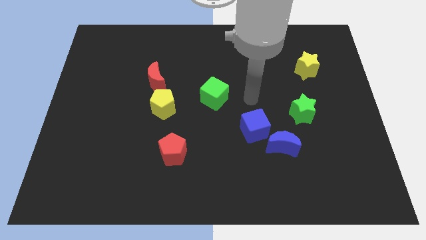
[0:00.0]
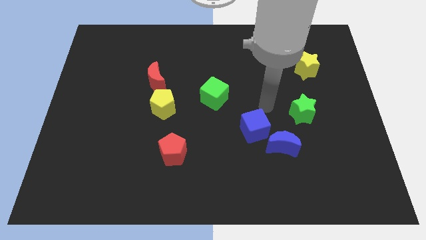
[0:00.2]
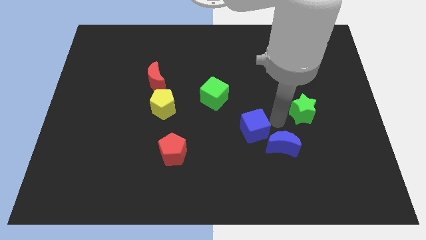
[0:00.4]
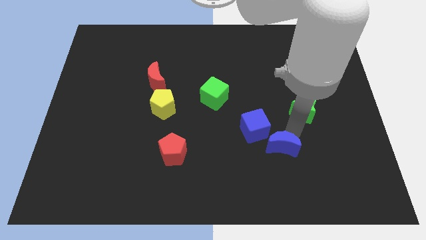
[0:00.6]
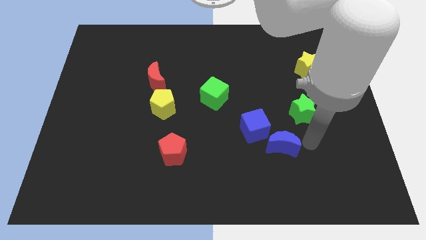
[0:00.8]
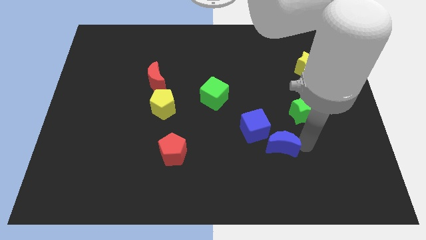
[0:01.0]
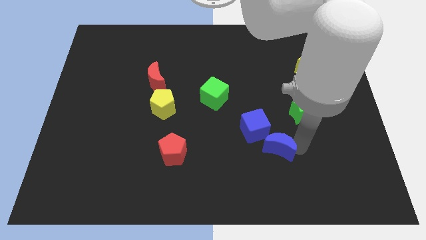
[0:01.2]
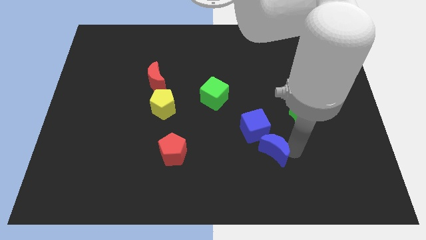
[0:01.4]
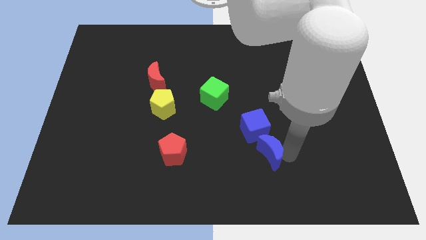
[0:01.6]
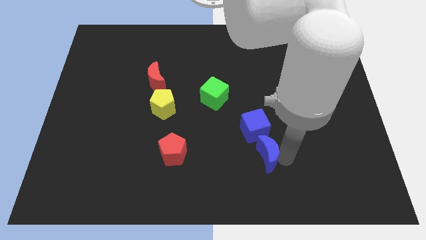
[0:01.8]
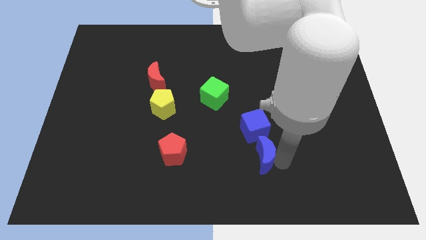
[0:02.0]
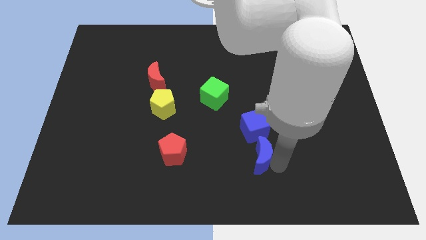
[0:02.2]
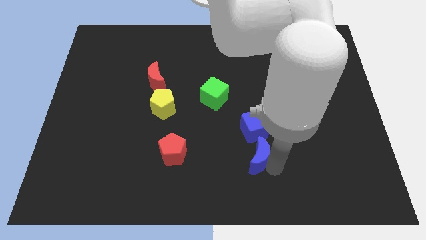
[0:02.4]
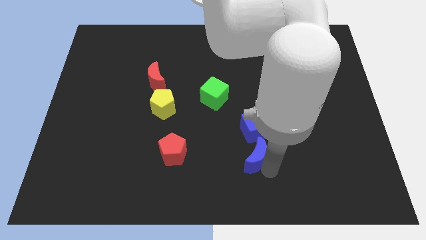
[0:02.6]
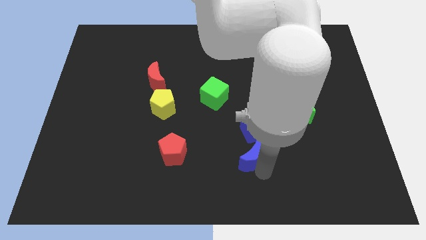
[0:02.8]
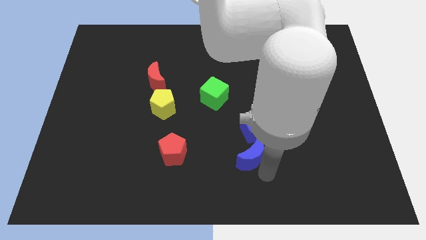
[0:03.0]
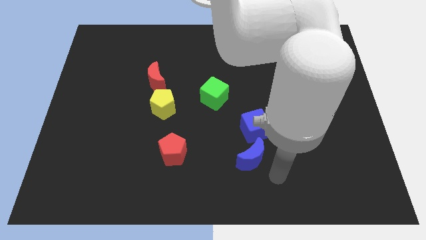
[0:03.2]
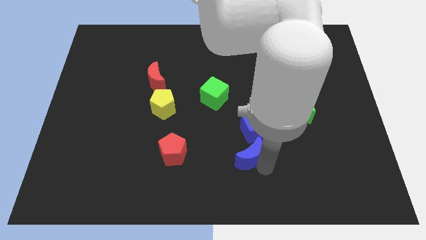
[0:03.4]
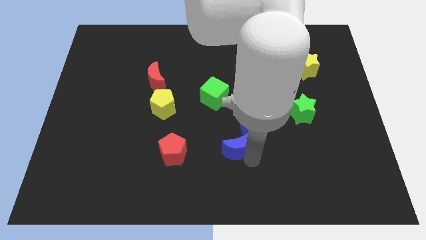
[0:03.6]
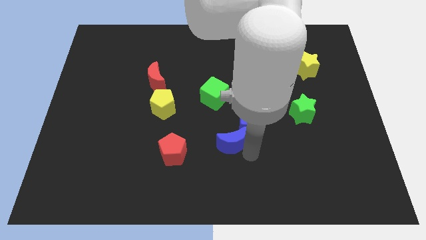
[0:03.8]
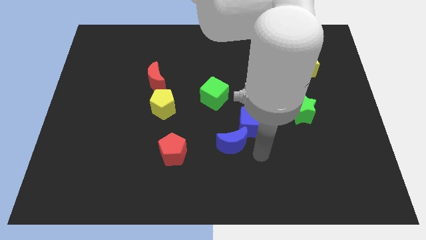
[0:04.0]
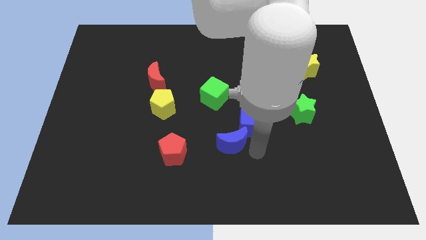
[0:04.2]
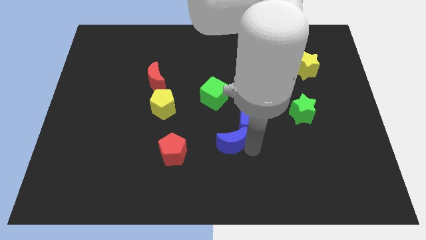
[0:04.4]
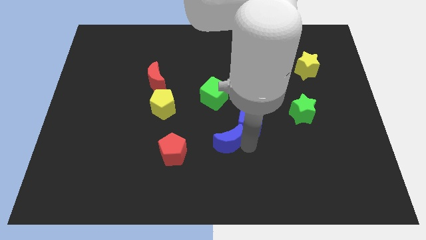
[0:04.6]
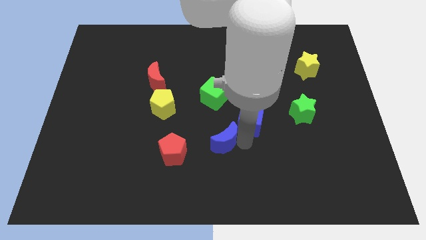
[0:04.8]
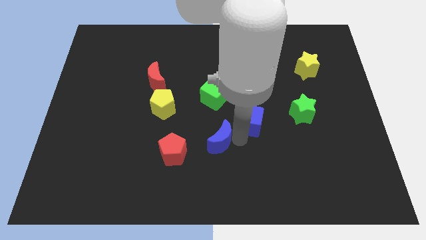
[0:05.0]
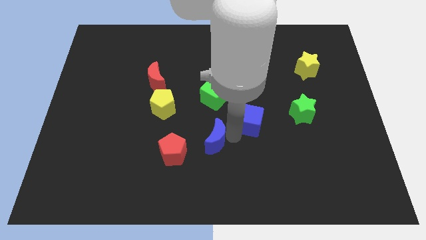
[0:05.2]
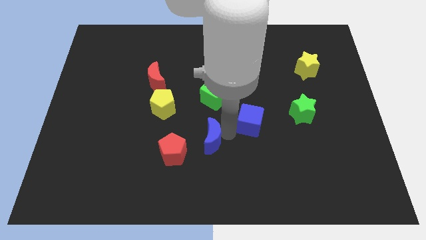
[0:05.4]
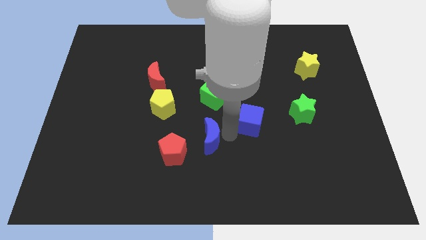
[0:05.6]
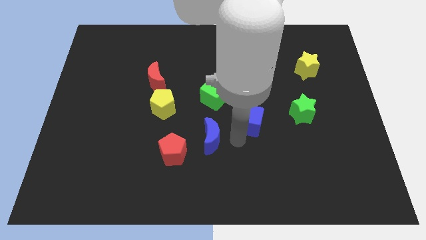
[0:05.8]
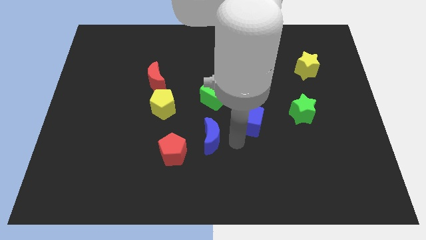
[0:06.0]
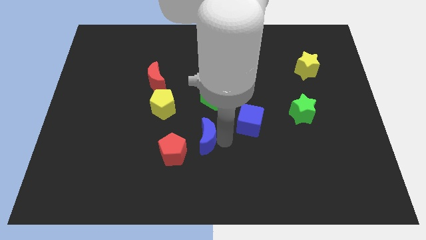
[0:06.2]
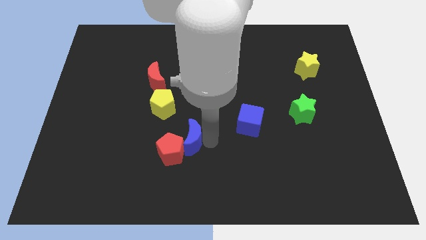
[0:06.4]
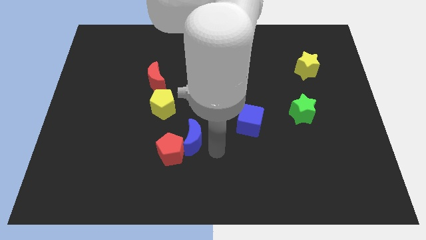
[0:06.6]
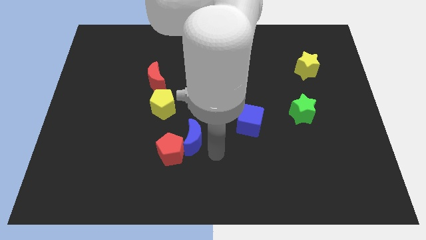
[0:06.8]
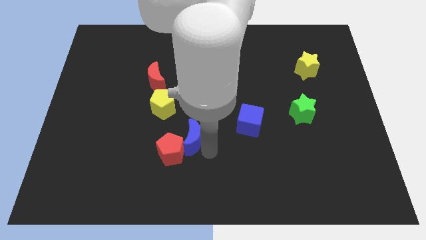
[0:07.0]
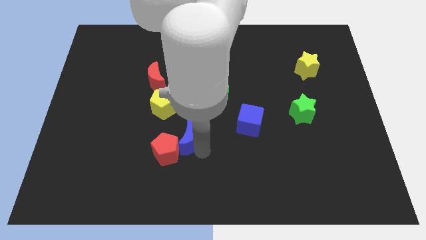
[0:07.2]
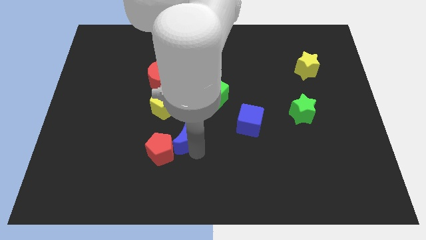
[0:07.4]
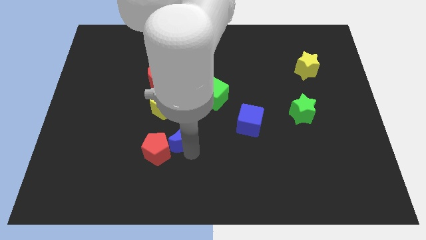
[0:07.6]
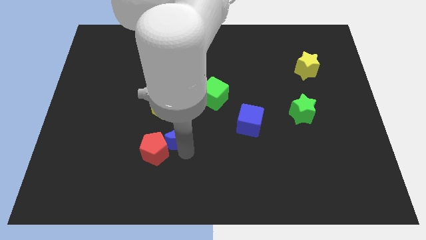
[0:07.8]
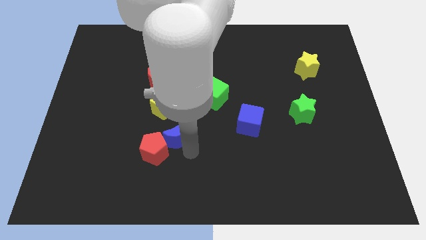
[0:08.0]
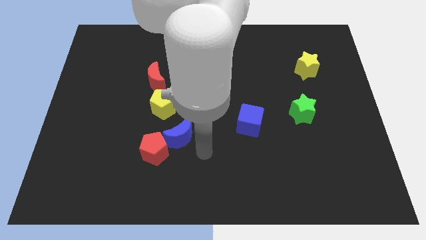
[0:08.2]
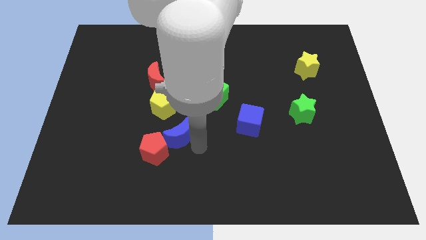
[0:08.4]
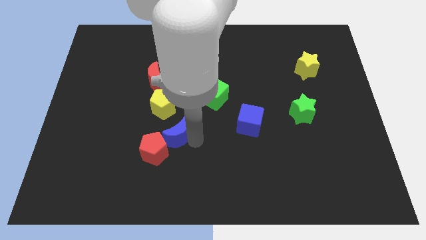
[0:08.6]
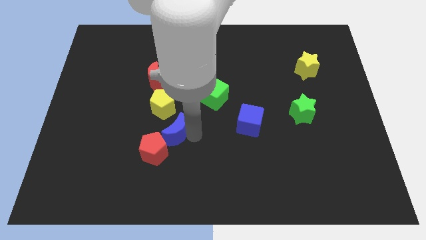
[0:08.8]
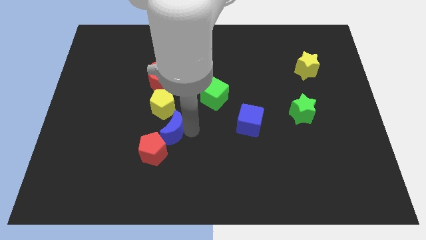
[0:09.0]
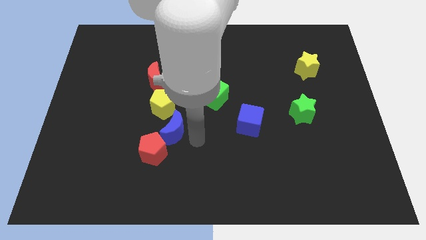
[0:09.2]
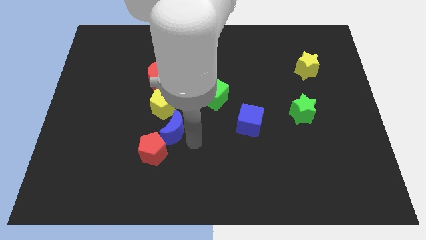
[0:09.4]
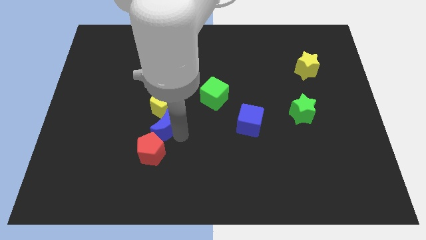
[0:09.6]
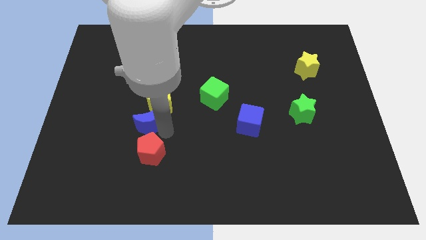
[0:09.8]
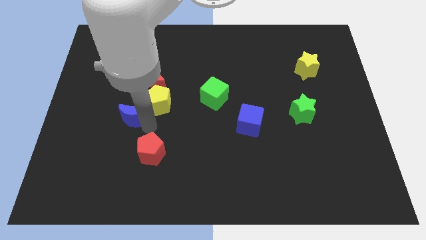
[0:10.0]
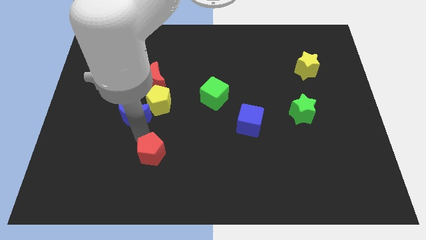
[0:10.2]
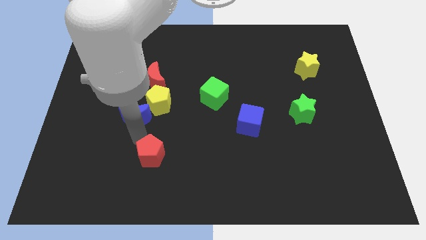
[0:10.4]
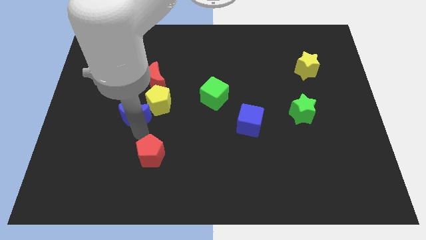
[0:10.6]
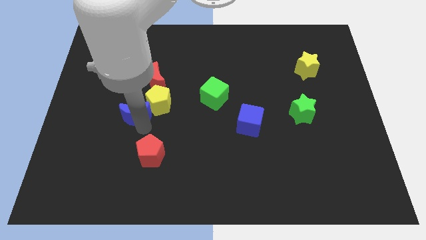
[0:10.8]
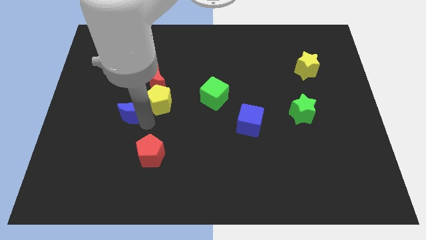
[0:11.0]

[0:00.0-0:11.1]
move the blue moon diagonally down and to the left of the red moon

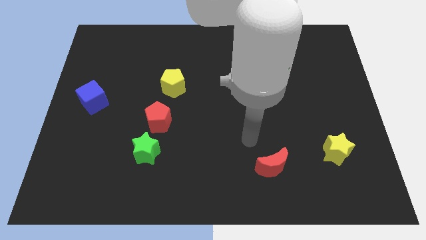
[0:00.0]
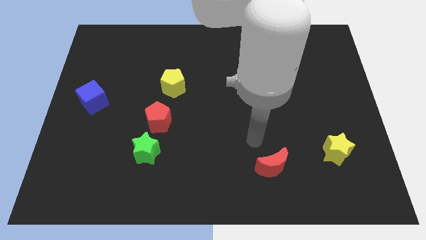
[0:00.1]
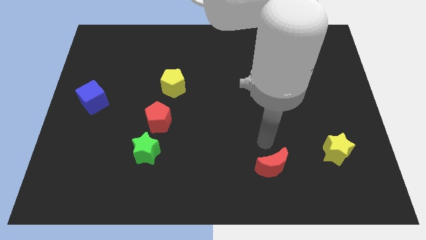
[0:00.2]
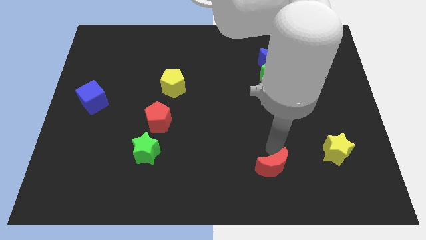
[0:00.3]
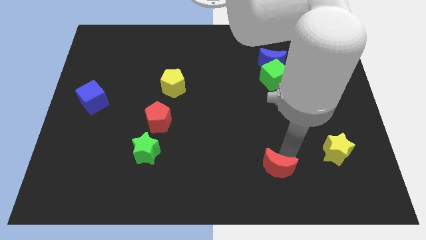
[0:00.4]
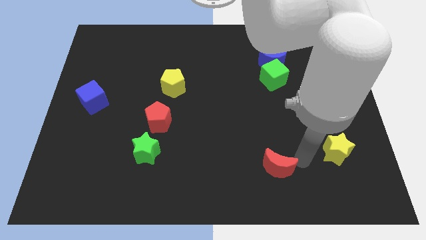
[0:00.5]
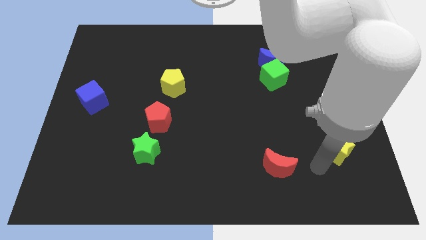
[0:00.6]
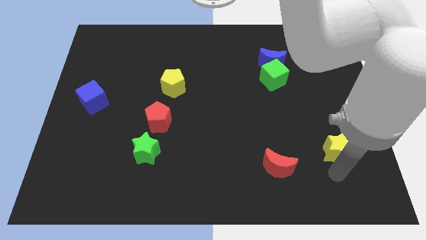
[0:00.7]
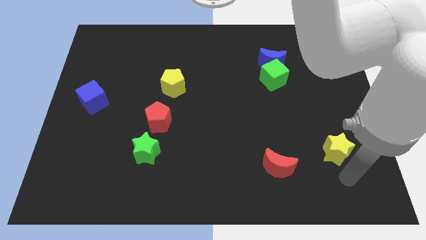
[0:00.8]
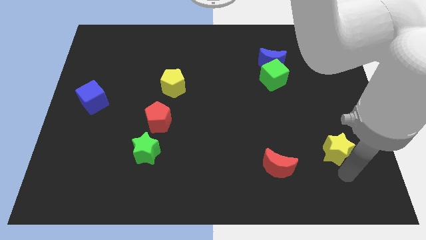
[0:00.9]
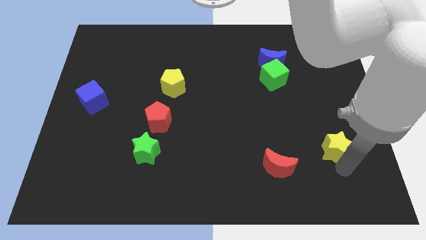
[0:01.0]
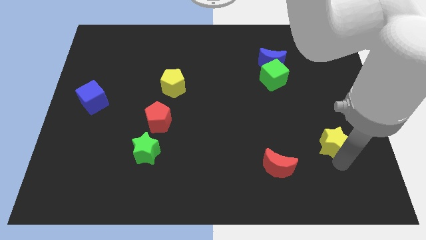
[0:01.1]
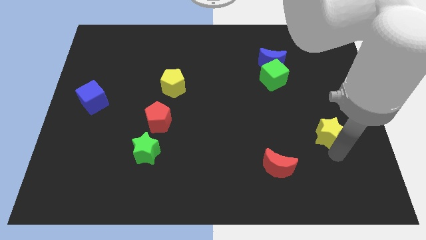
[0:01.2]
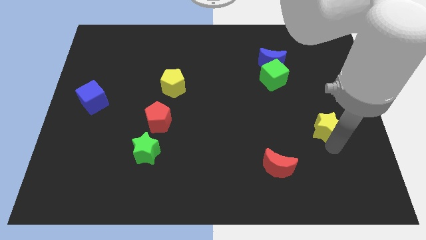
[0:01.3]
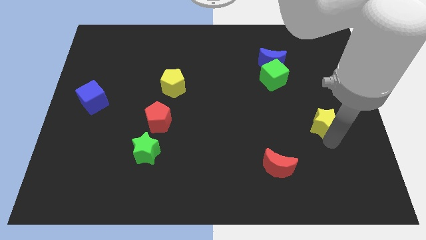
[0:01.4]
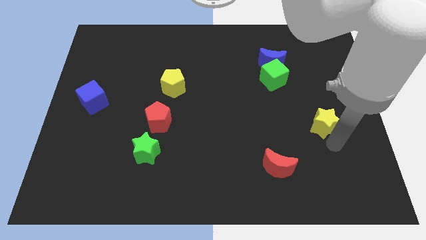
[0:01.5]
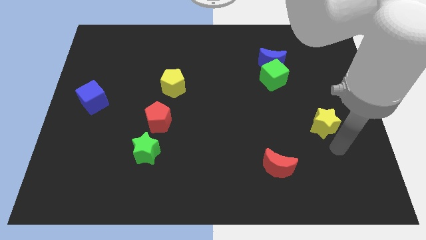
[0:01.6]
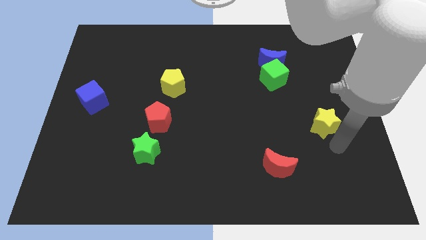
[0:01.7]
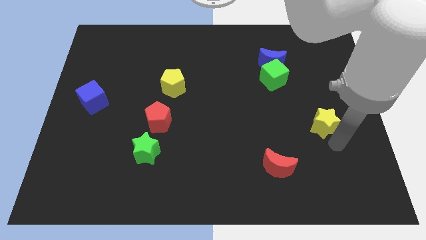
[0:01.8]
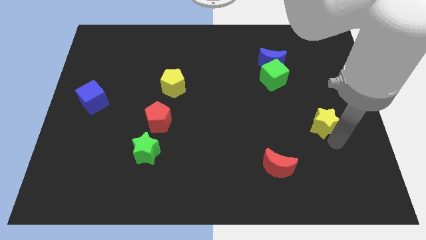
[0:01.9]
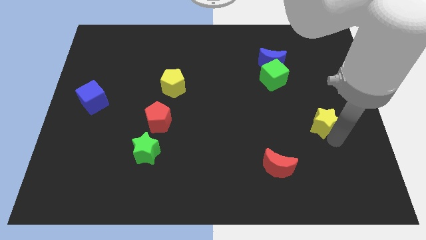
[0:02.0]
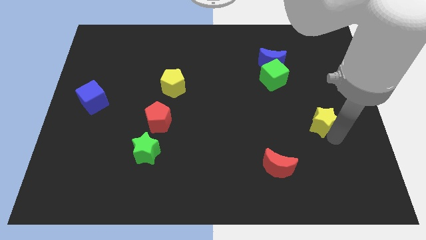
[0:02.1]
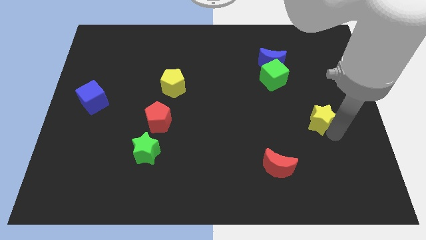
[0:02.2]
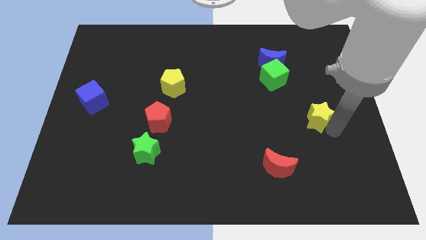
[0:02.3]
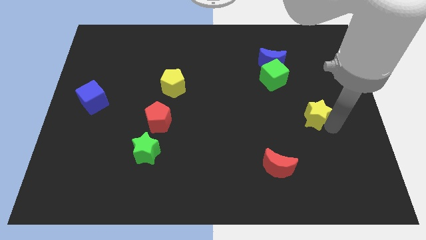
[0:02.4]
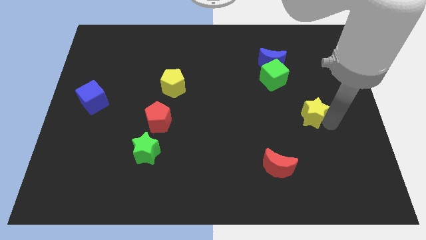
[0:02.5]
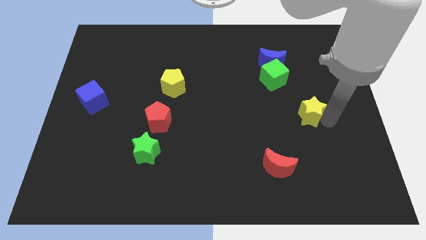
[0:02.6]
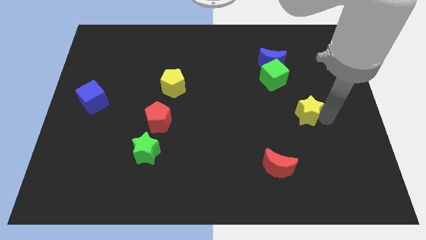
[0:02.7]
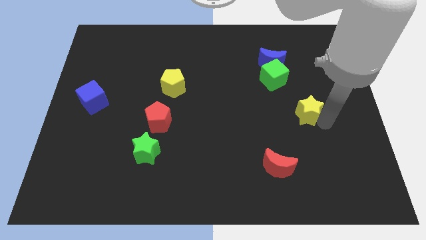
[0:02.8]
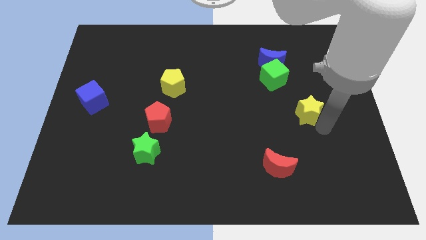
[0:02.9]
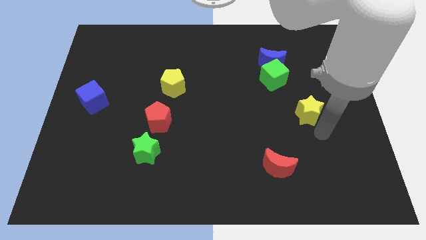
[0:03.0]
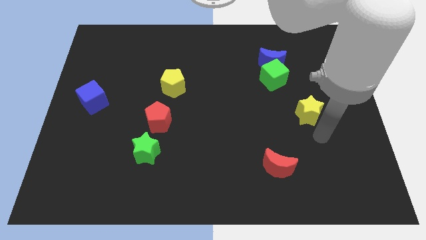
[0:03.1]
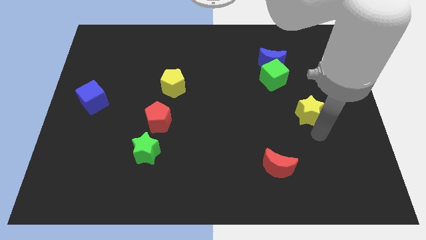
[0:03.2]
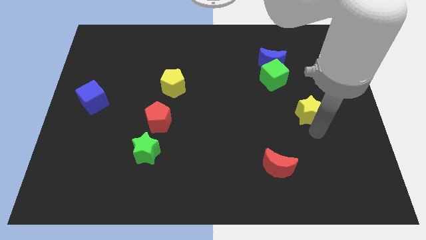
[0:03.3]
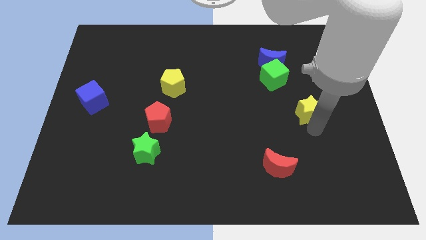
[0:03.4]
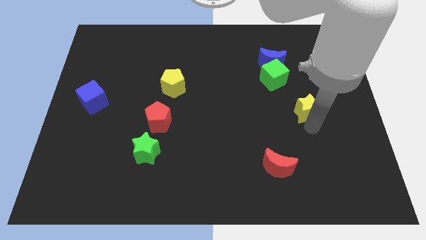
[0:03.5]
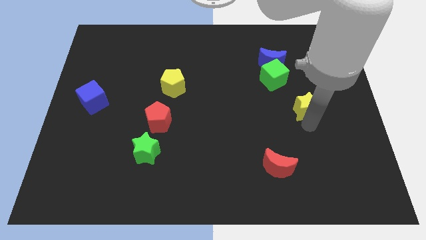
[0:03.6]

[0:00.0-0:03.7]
put the yellow star to the bottom right side of the green cube
